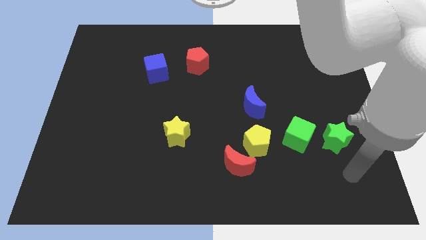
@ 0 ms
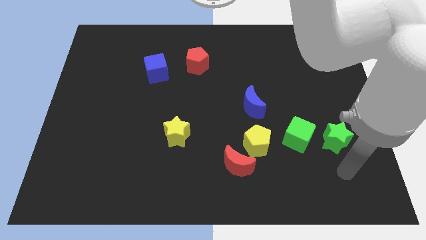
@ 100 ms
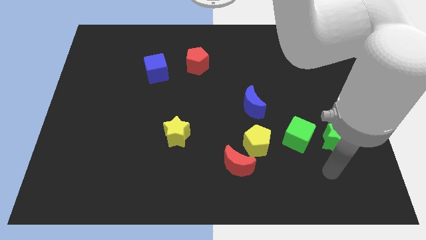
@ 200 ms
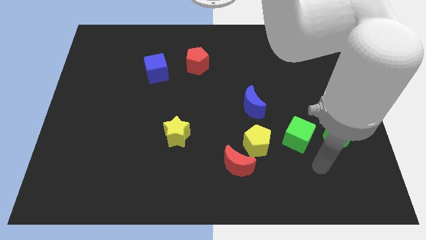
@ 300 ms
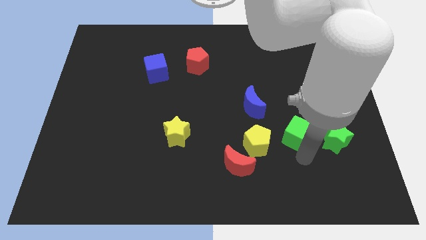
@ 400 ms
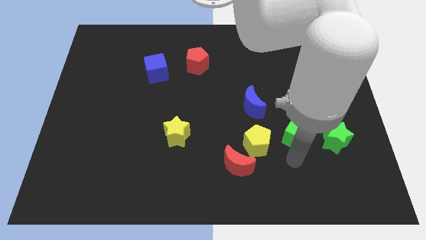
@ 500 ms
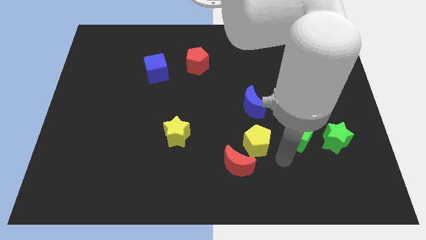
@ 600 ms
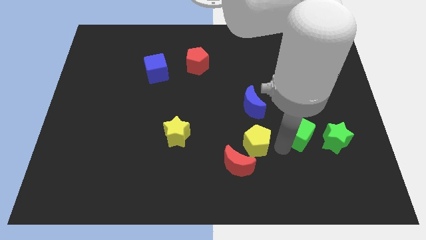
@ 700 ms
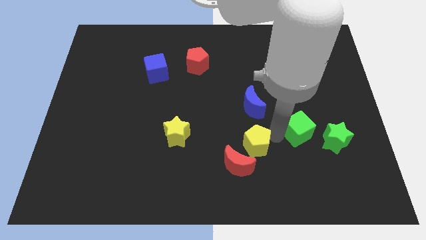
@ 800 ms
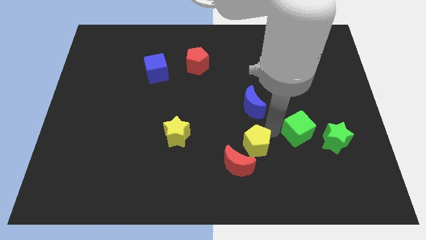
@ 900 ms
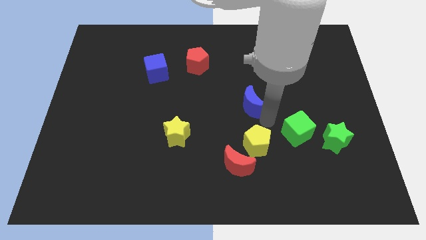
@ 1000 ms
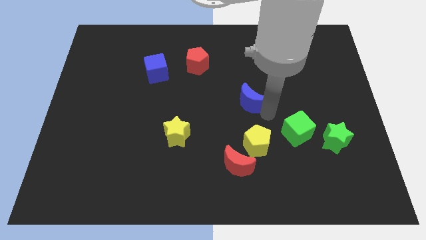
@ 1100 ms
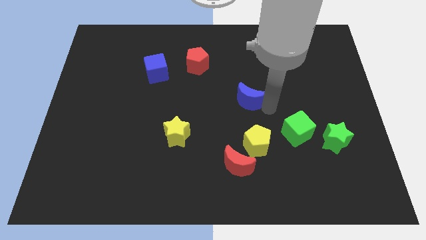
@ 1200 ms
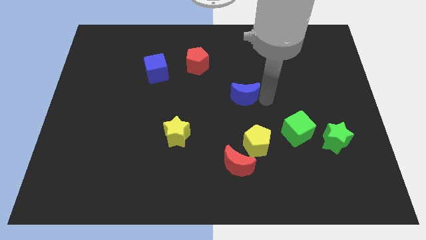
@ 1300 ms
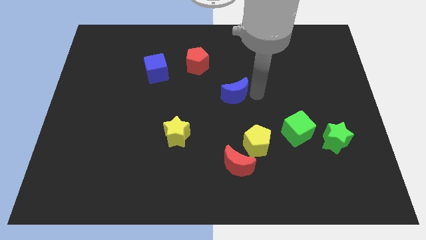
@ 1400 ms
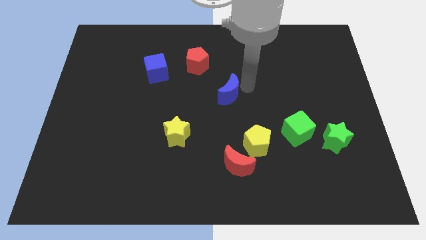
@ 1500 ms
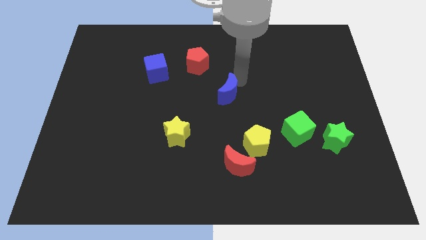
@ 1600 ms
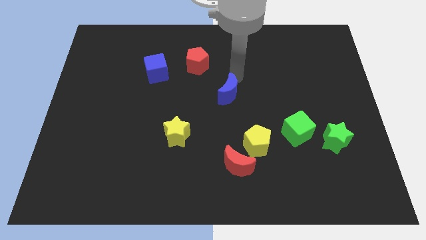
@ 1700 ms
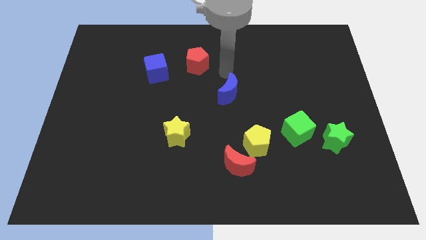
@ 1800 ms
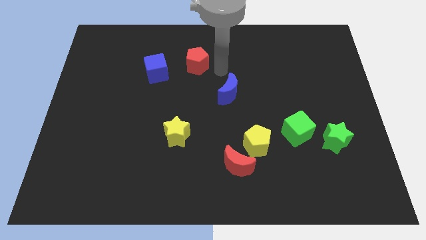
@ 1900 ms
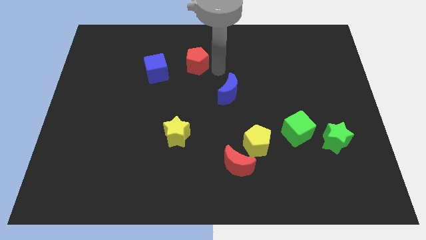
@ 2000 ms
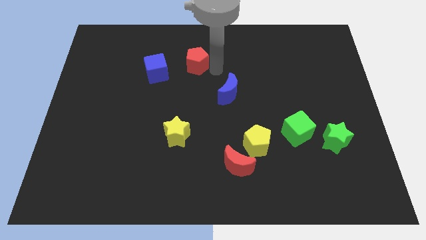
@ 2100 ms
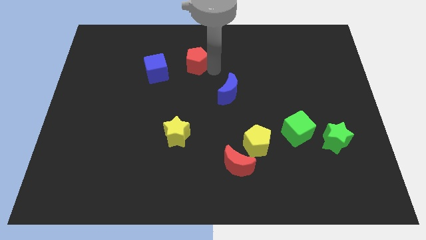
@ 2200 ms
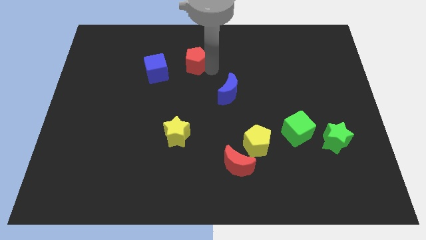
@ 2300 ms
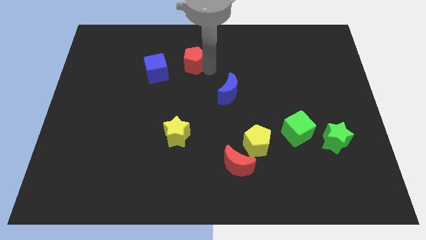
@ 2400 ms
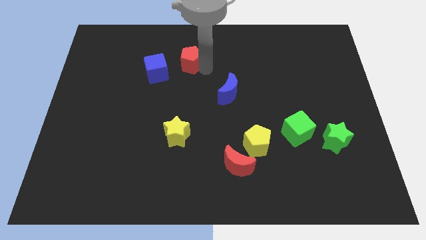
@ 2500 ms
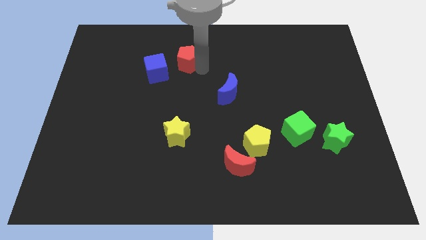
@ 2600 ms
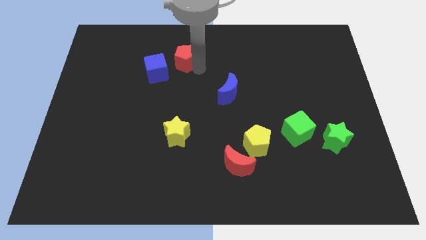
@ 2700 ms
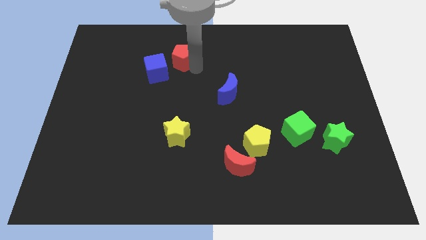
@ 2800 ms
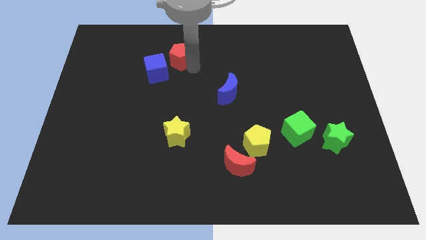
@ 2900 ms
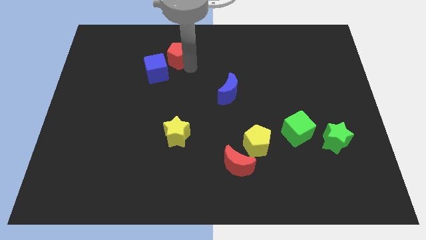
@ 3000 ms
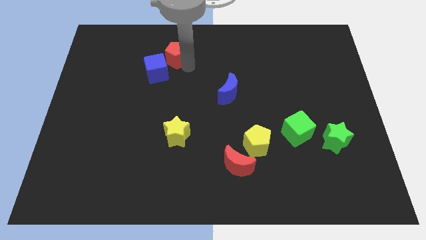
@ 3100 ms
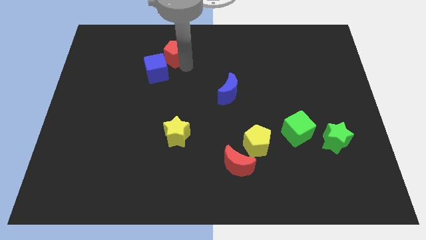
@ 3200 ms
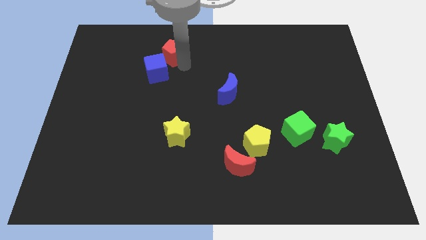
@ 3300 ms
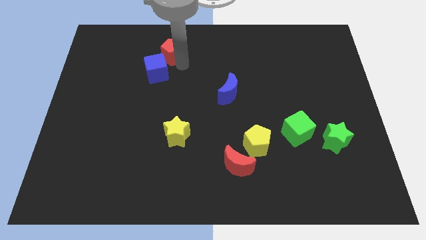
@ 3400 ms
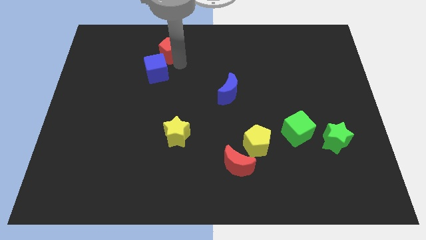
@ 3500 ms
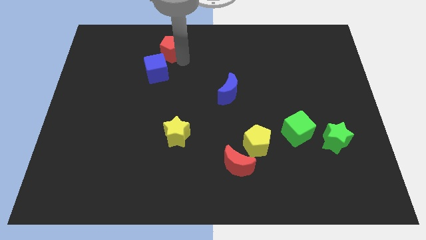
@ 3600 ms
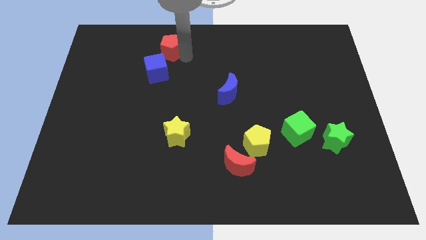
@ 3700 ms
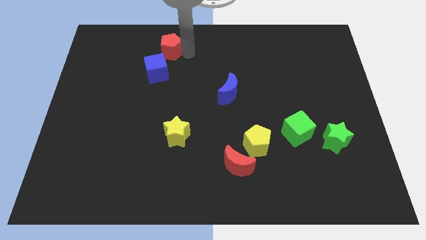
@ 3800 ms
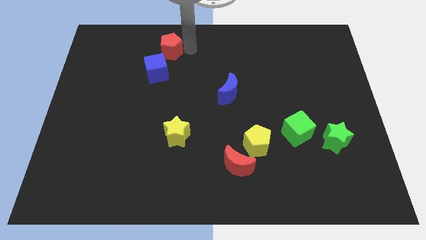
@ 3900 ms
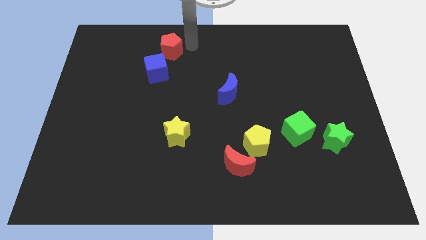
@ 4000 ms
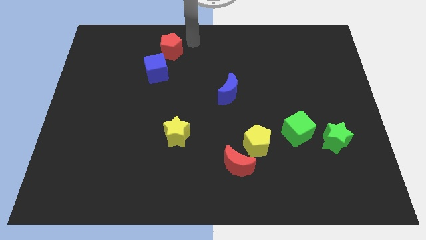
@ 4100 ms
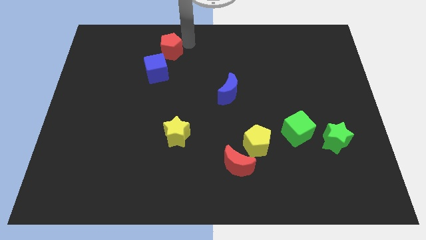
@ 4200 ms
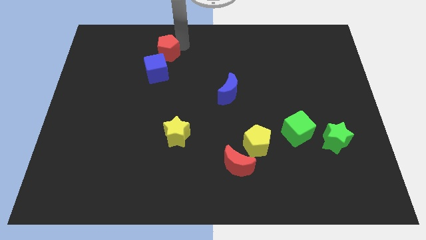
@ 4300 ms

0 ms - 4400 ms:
push the red pentagon left slightly

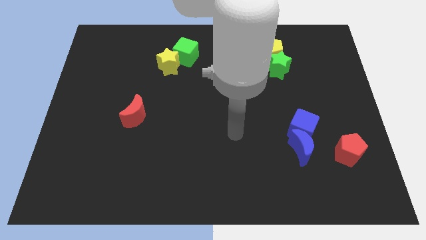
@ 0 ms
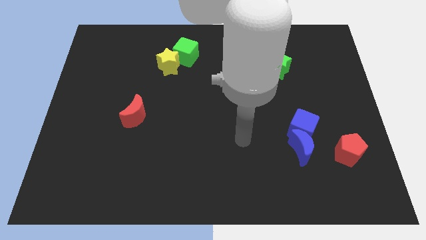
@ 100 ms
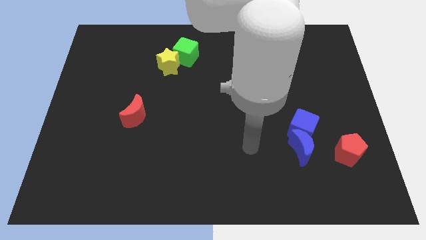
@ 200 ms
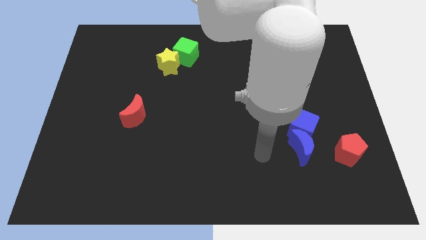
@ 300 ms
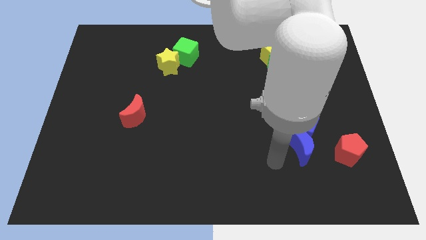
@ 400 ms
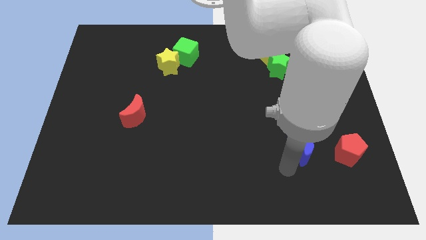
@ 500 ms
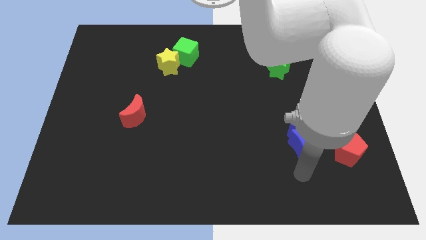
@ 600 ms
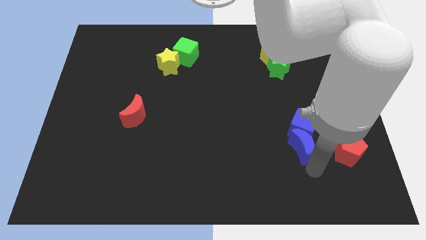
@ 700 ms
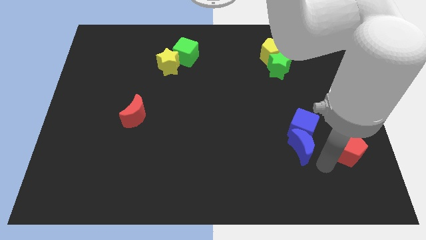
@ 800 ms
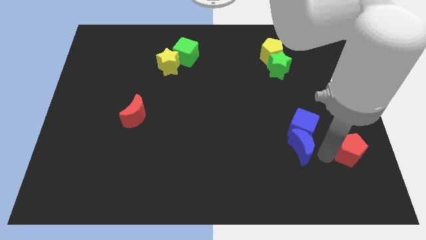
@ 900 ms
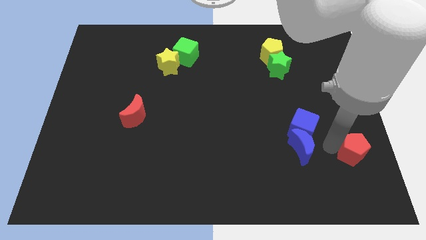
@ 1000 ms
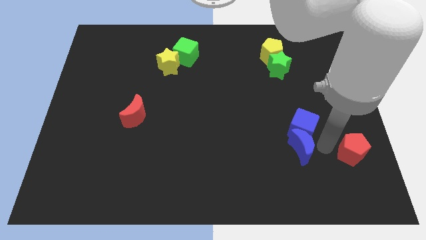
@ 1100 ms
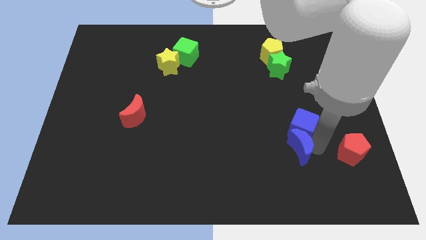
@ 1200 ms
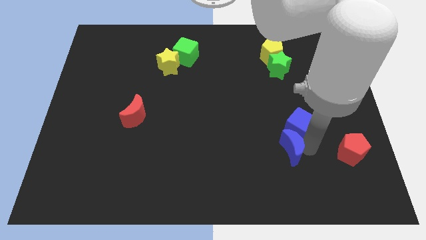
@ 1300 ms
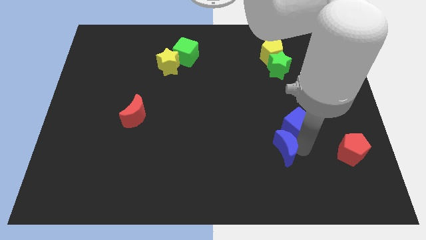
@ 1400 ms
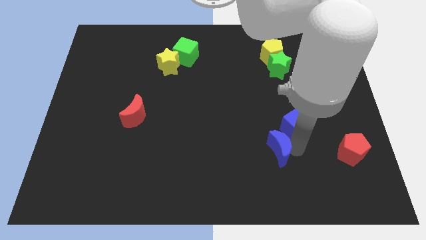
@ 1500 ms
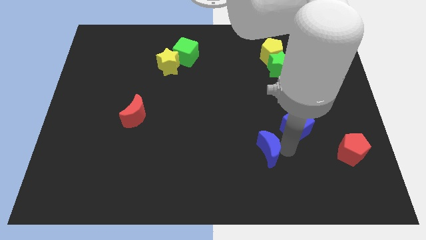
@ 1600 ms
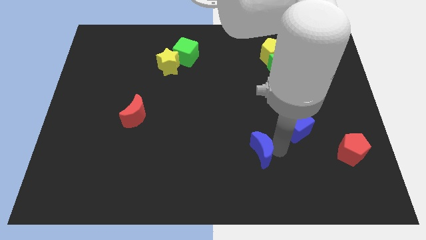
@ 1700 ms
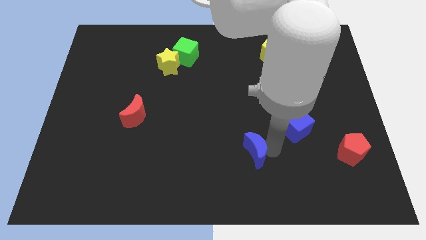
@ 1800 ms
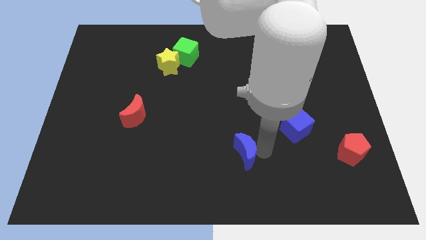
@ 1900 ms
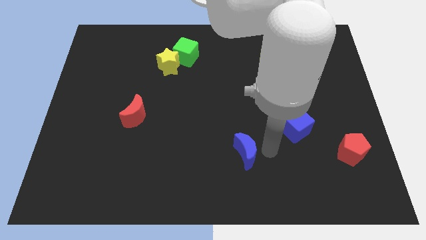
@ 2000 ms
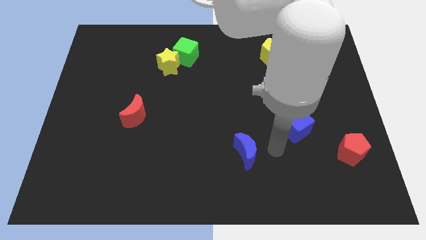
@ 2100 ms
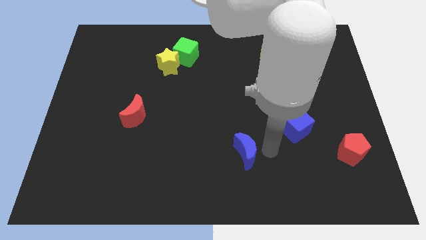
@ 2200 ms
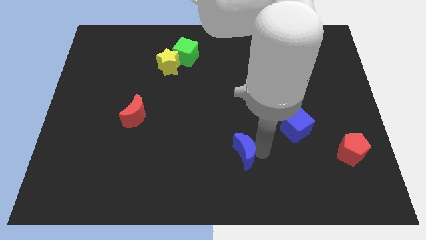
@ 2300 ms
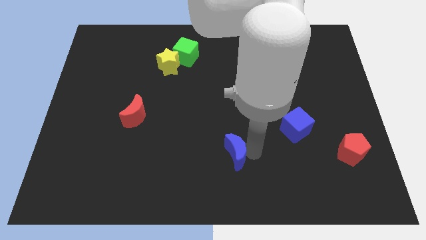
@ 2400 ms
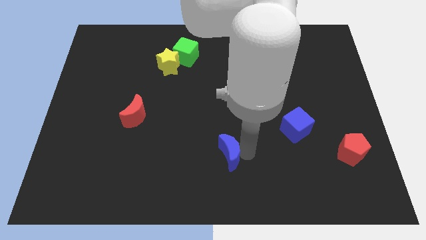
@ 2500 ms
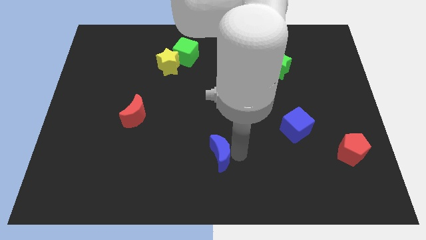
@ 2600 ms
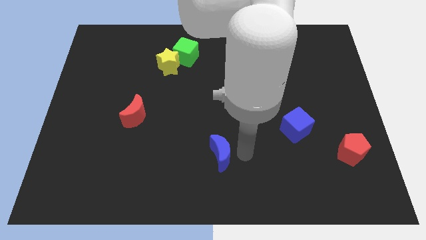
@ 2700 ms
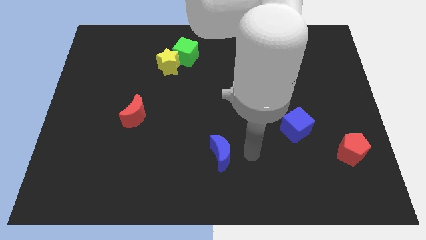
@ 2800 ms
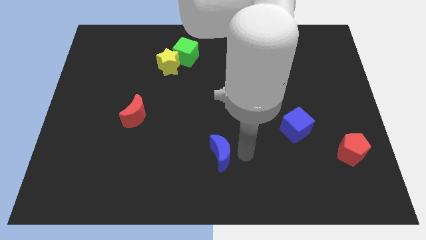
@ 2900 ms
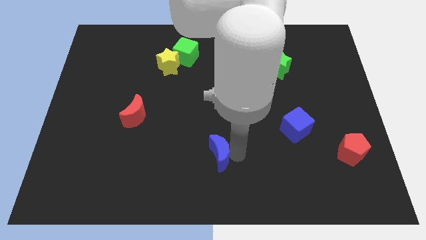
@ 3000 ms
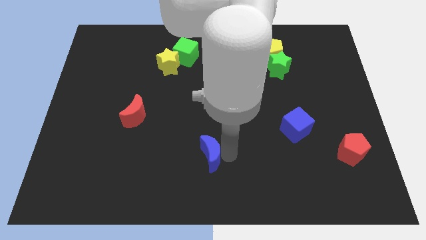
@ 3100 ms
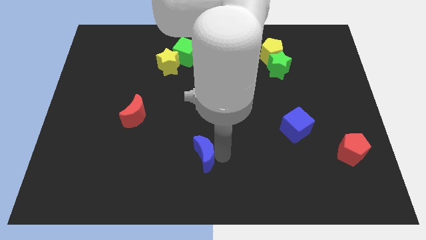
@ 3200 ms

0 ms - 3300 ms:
move the blue moon to the left

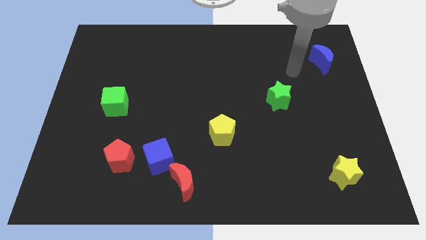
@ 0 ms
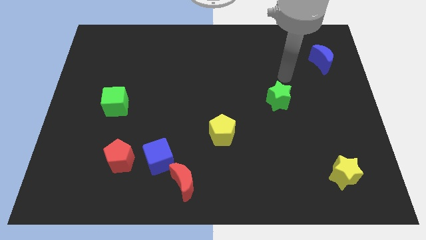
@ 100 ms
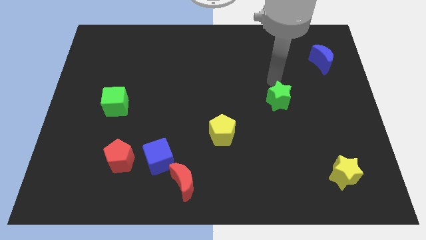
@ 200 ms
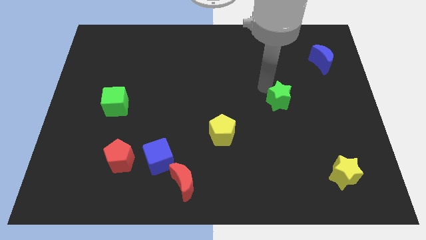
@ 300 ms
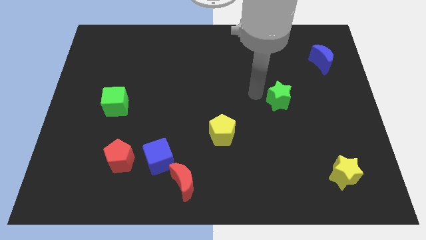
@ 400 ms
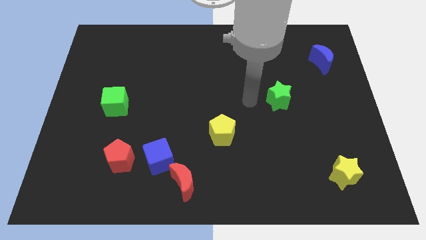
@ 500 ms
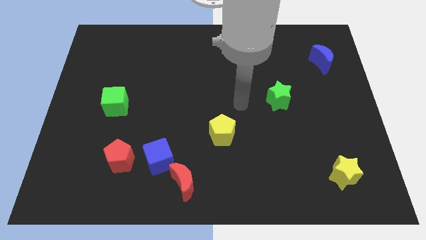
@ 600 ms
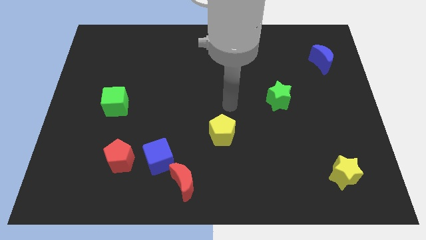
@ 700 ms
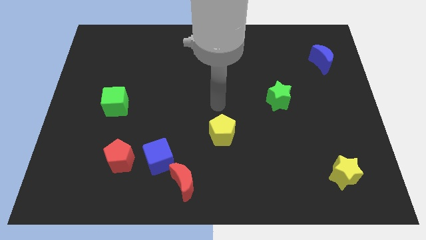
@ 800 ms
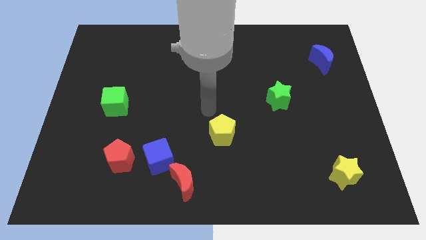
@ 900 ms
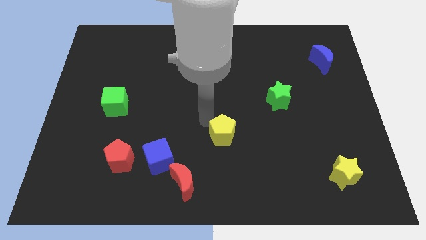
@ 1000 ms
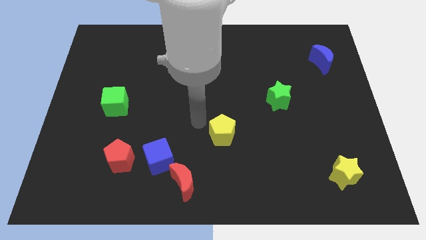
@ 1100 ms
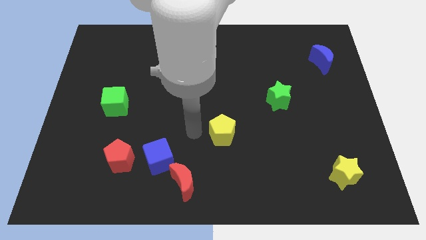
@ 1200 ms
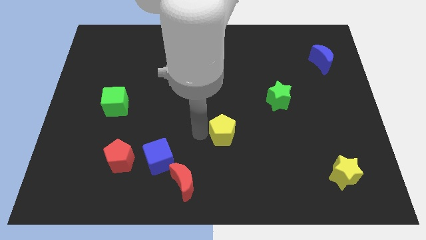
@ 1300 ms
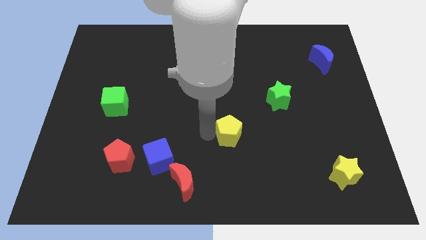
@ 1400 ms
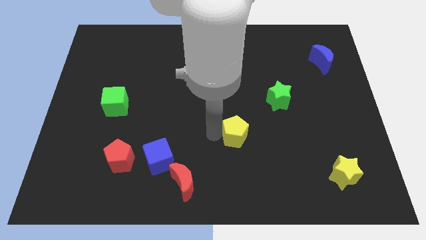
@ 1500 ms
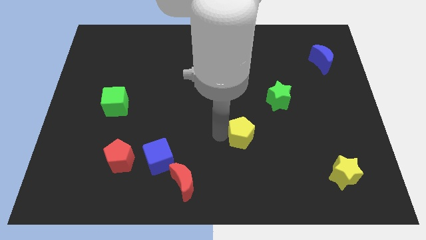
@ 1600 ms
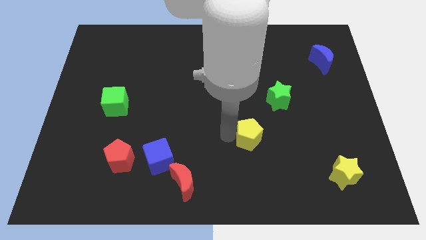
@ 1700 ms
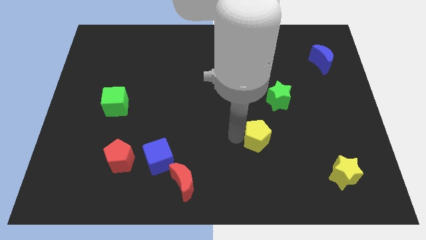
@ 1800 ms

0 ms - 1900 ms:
move the yellow pentagon a little right
